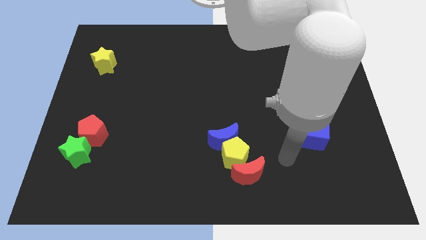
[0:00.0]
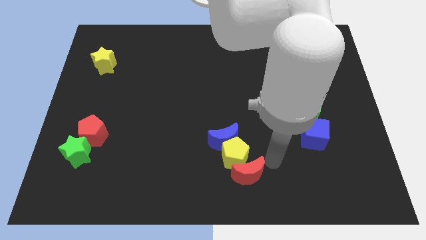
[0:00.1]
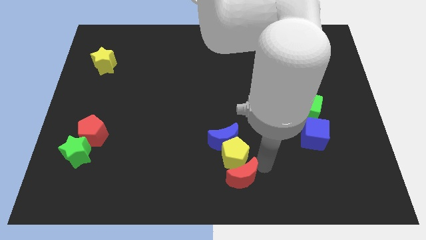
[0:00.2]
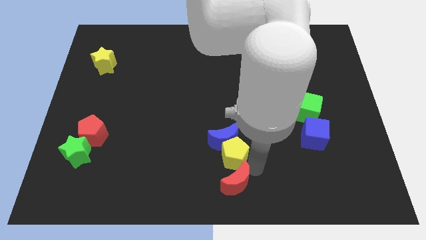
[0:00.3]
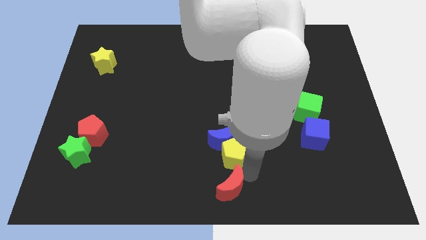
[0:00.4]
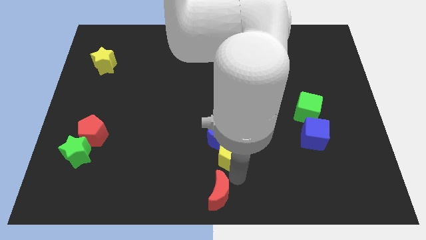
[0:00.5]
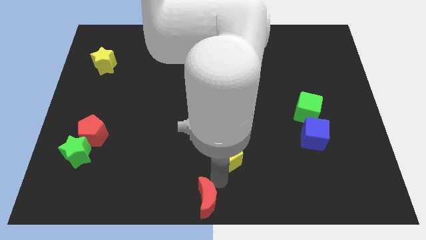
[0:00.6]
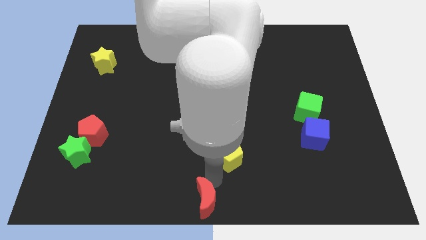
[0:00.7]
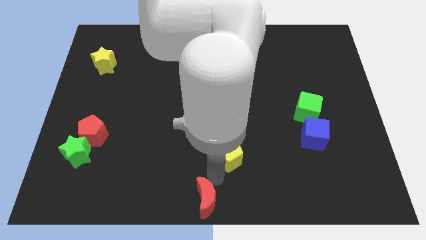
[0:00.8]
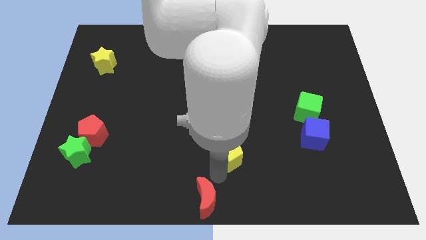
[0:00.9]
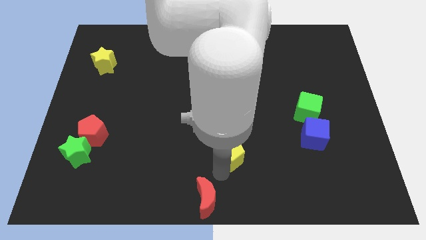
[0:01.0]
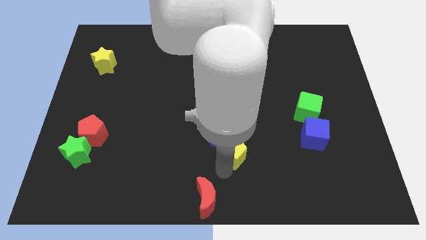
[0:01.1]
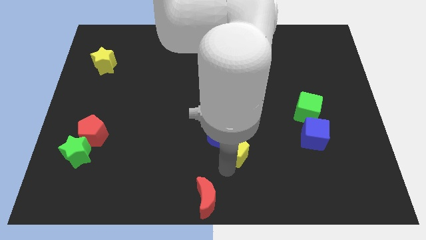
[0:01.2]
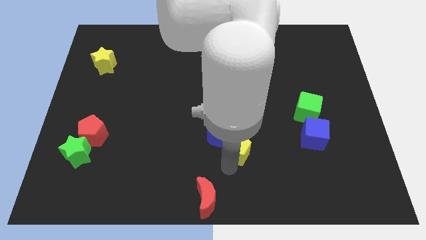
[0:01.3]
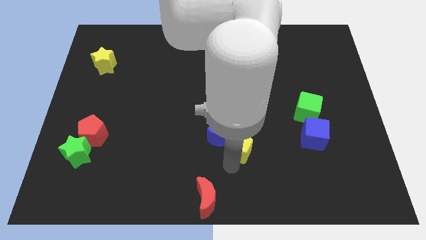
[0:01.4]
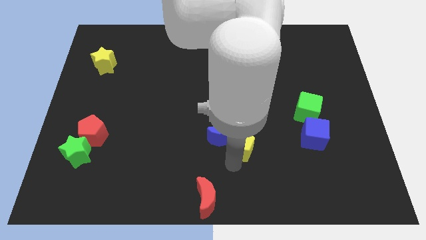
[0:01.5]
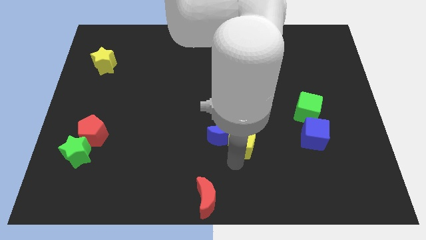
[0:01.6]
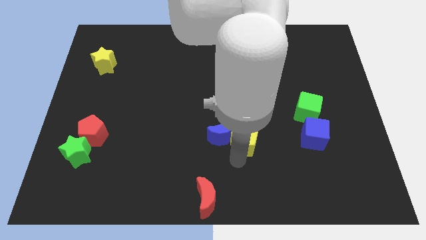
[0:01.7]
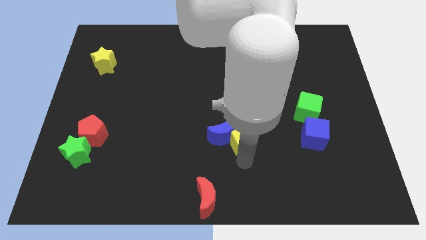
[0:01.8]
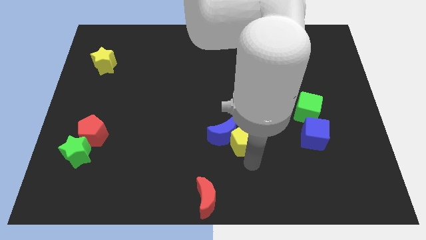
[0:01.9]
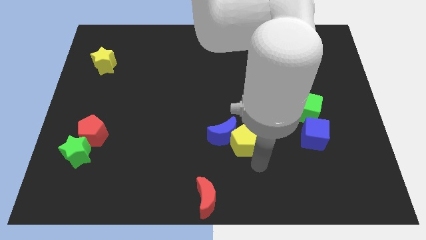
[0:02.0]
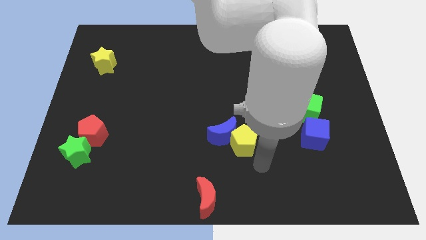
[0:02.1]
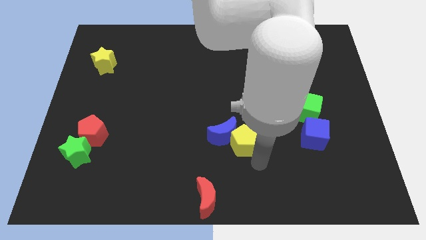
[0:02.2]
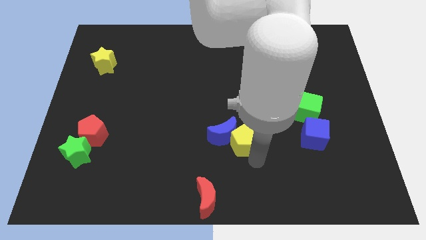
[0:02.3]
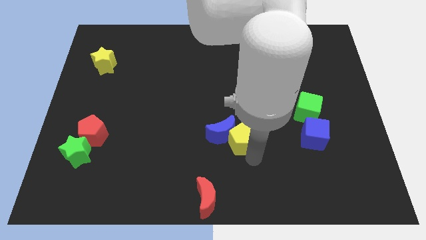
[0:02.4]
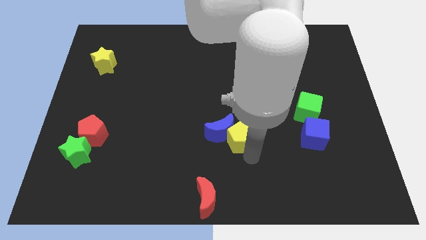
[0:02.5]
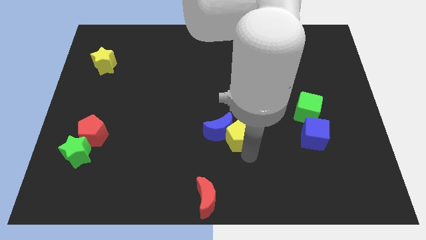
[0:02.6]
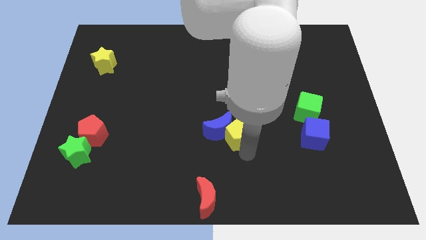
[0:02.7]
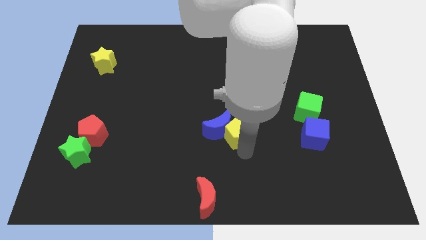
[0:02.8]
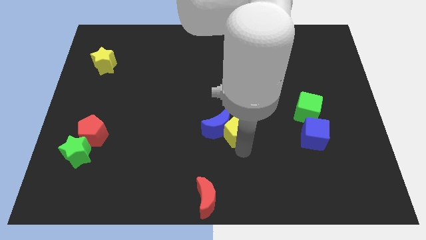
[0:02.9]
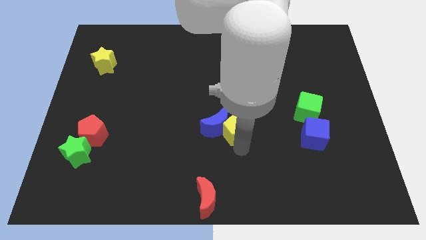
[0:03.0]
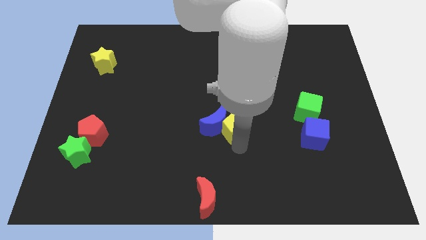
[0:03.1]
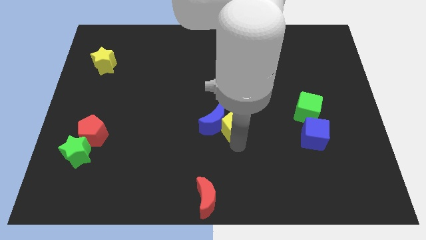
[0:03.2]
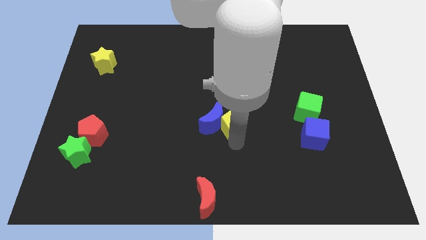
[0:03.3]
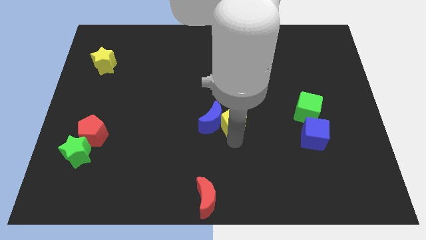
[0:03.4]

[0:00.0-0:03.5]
pull the yellow pentagon apart from the blue moon and red moon

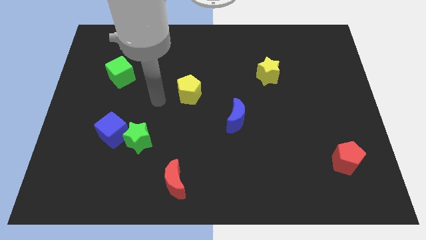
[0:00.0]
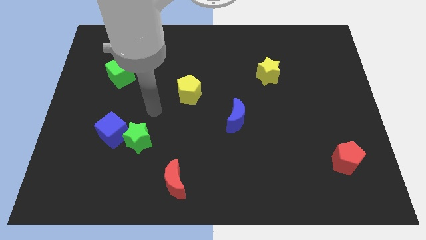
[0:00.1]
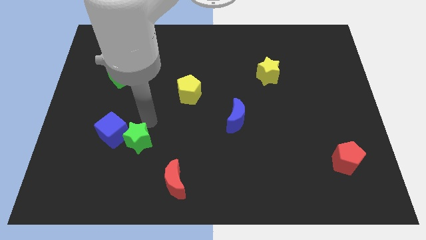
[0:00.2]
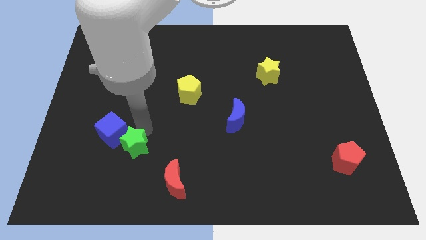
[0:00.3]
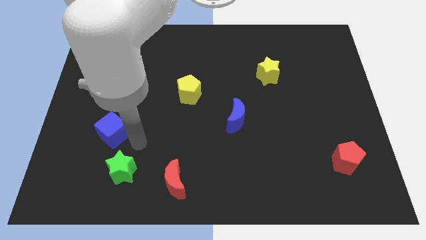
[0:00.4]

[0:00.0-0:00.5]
move the blue cube away from the green star

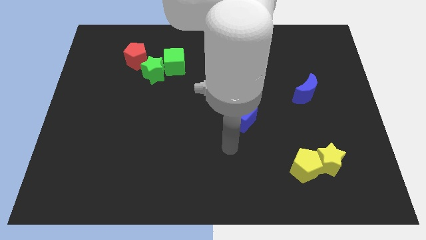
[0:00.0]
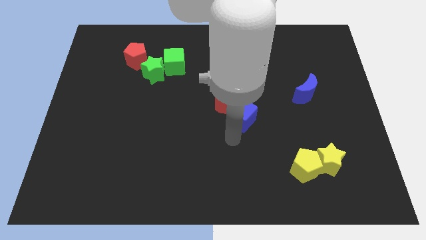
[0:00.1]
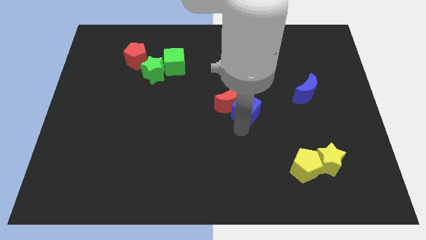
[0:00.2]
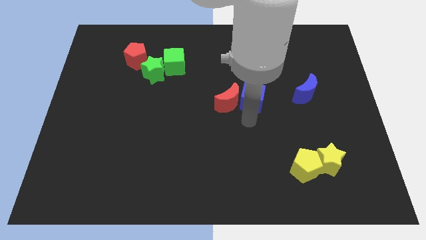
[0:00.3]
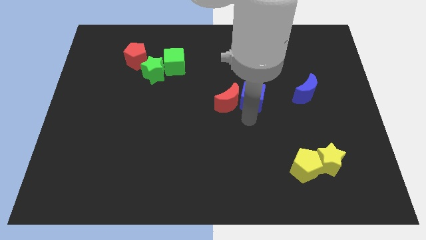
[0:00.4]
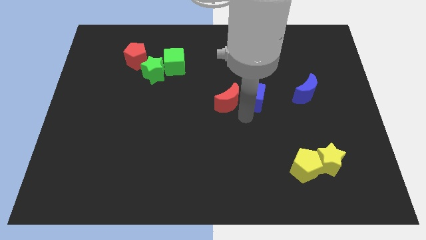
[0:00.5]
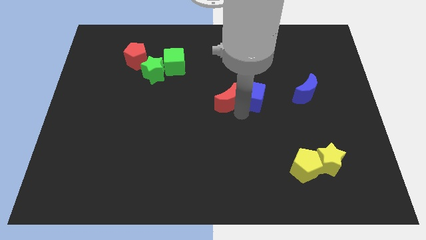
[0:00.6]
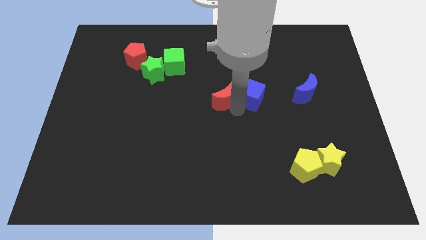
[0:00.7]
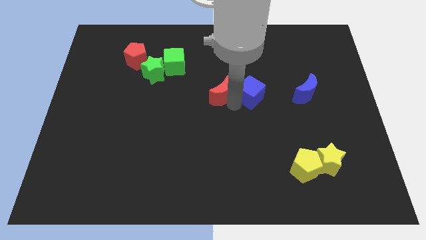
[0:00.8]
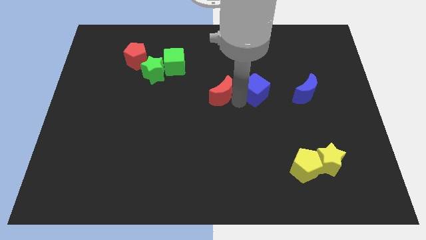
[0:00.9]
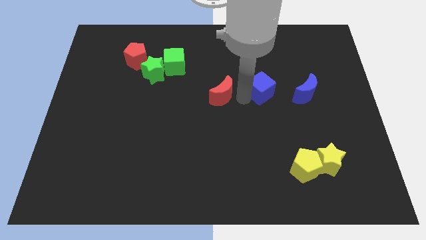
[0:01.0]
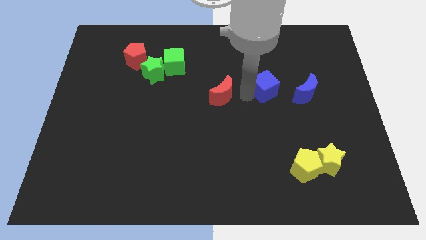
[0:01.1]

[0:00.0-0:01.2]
move the red moon away from the blue cube

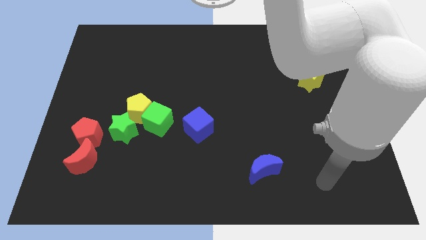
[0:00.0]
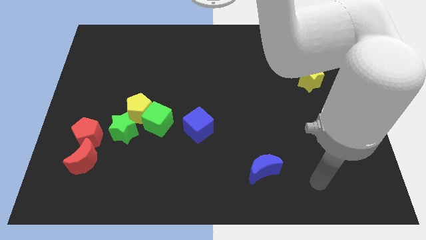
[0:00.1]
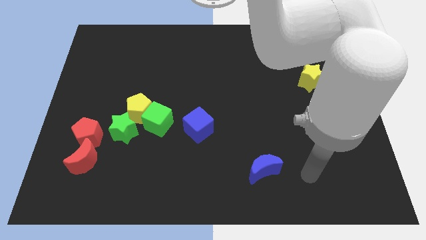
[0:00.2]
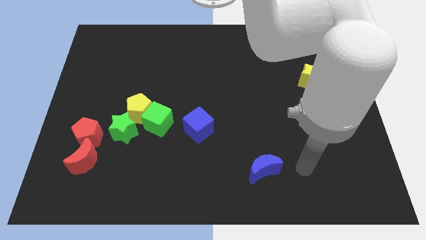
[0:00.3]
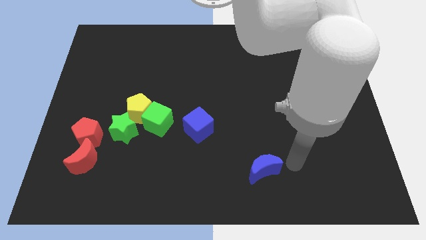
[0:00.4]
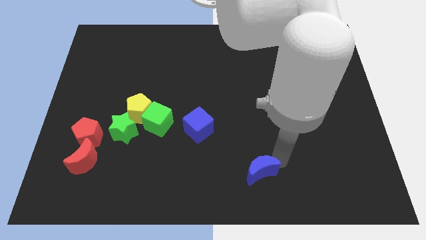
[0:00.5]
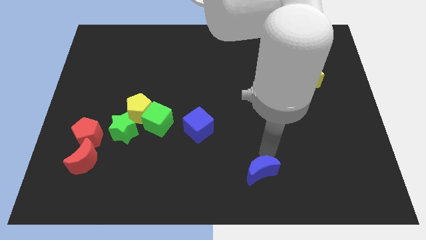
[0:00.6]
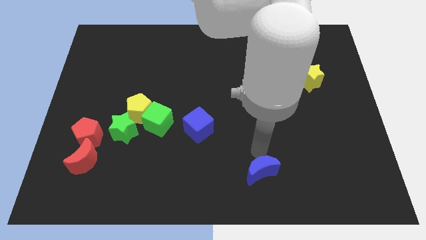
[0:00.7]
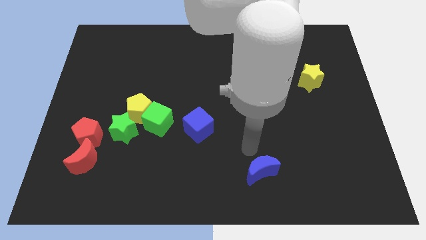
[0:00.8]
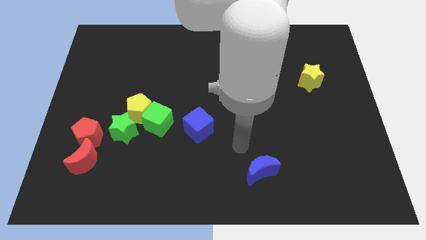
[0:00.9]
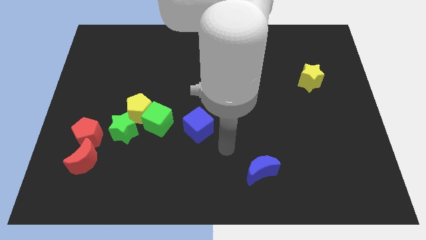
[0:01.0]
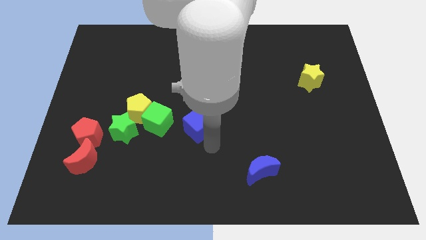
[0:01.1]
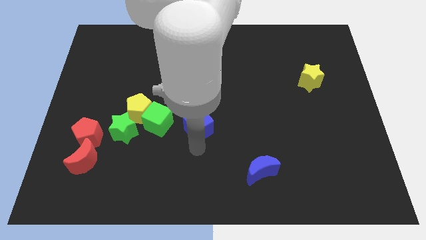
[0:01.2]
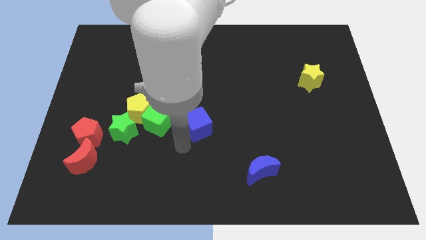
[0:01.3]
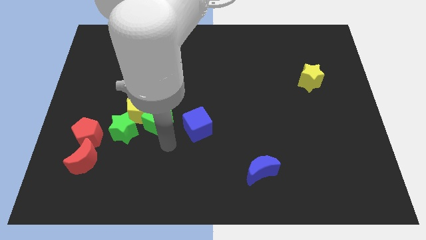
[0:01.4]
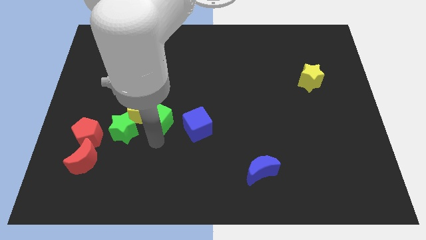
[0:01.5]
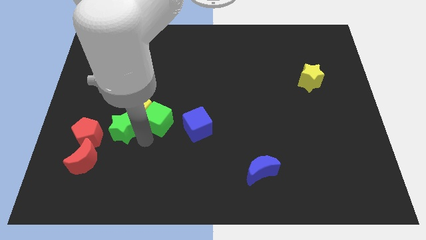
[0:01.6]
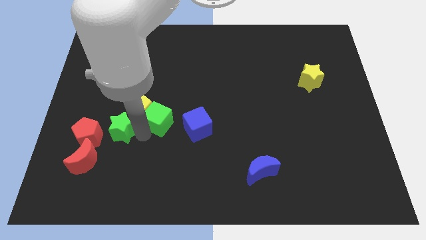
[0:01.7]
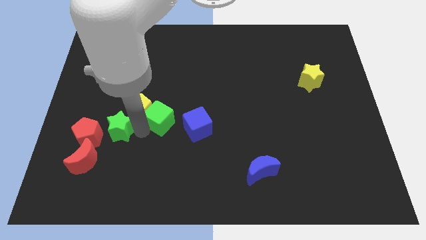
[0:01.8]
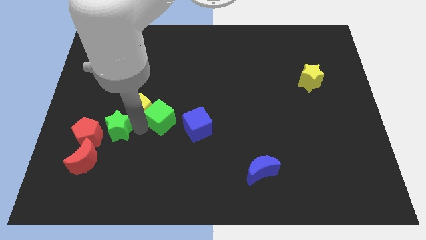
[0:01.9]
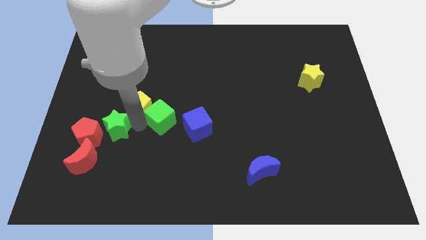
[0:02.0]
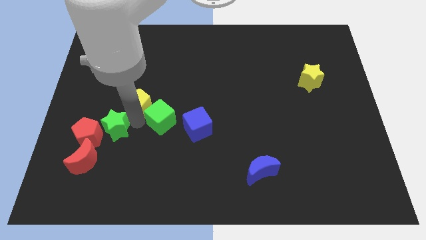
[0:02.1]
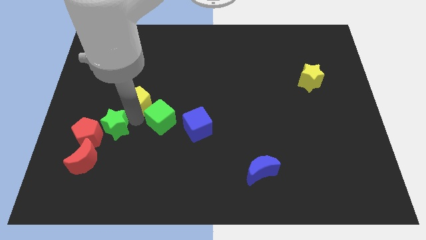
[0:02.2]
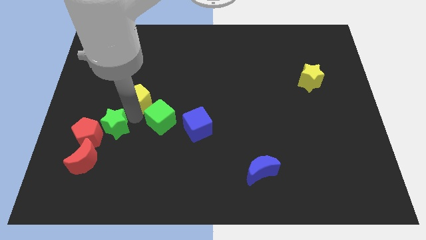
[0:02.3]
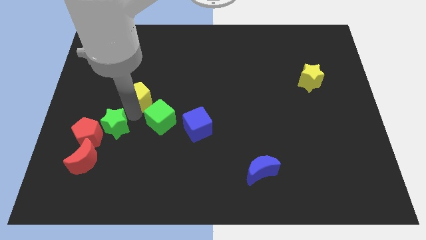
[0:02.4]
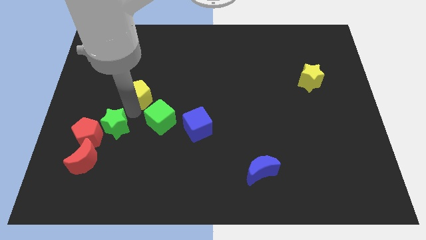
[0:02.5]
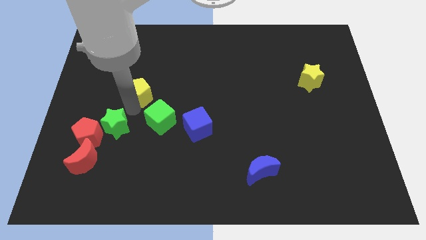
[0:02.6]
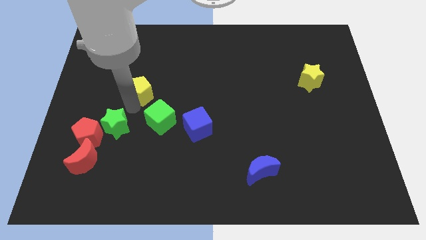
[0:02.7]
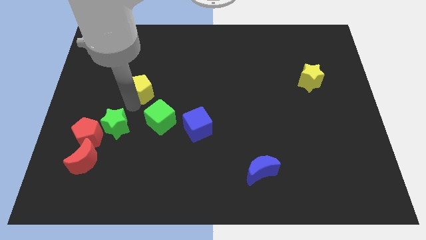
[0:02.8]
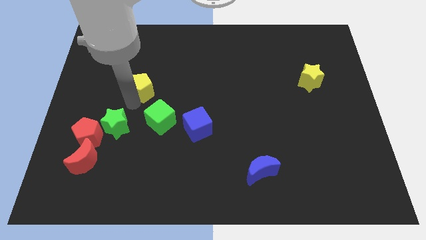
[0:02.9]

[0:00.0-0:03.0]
move the yellow pentagon away from the green cube and green star

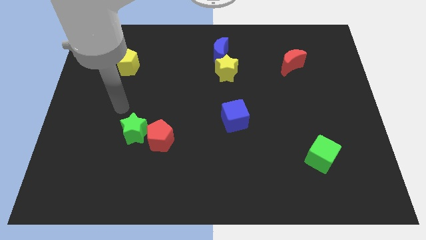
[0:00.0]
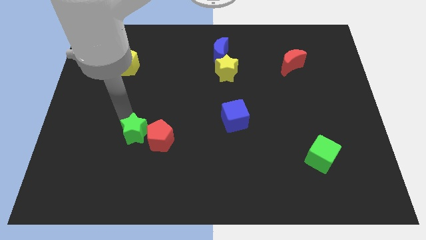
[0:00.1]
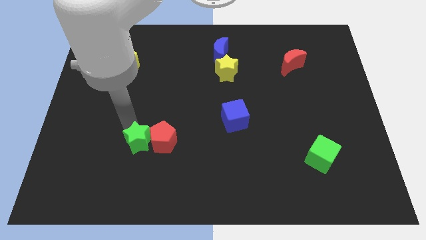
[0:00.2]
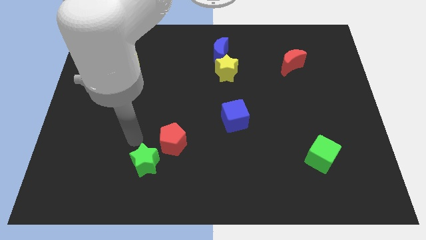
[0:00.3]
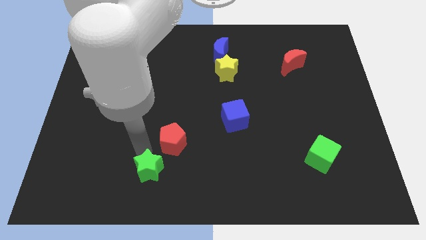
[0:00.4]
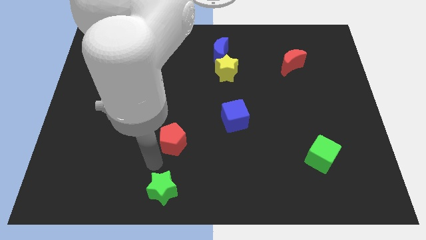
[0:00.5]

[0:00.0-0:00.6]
move the red pentagon away from the green star

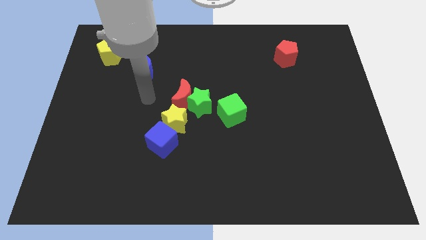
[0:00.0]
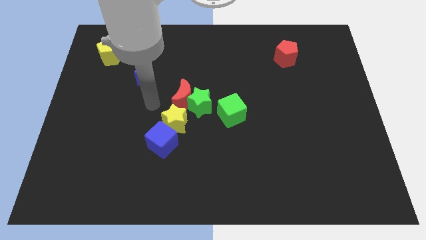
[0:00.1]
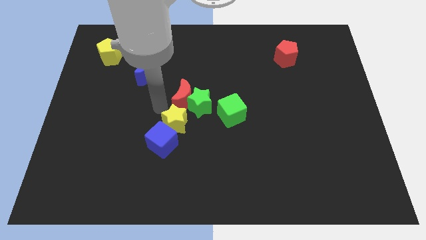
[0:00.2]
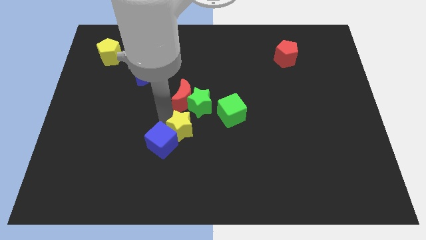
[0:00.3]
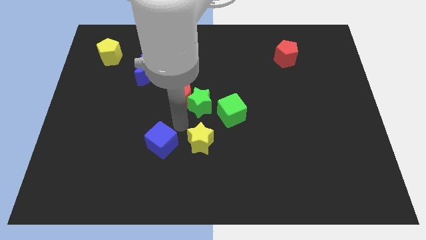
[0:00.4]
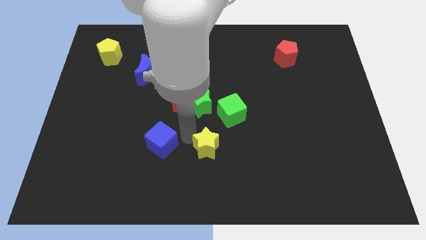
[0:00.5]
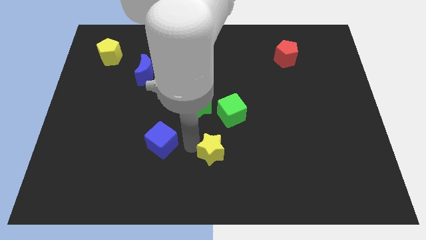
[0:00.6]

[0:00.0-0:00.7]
separate the blue cube from the yellow star
